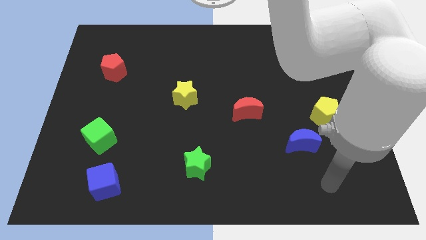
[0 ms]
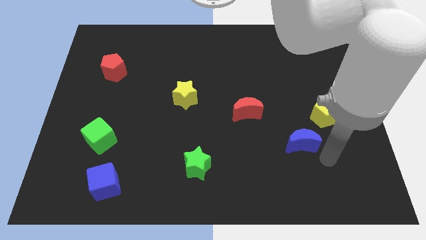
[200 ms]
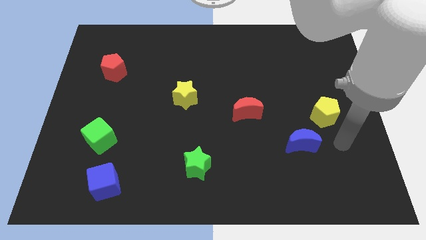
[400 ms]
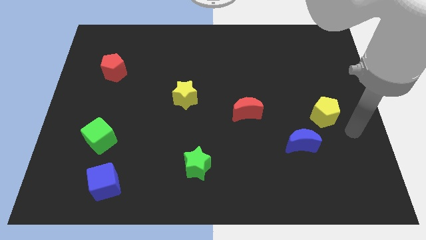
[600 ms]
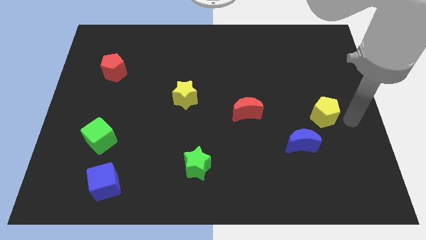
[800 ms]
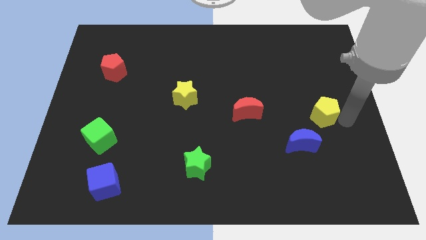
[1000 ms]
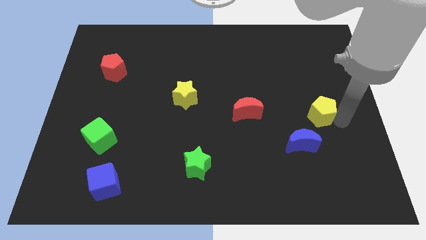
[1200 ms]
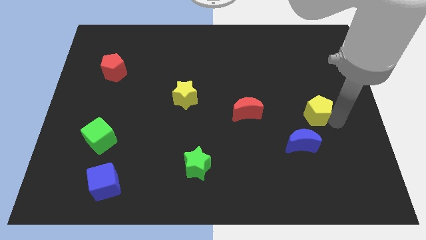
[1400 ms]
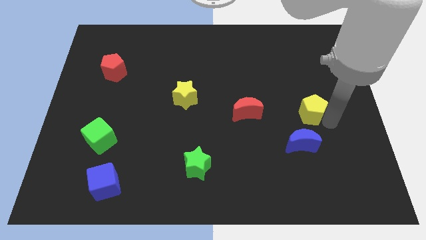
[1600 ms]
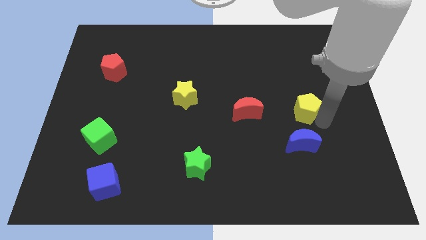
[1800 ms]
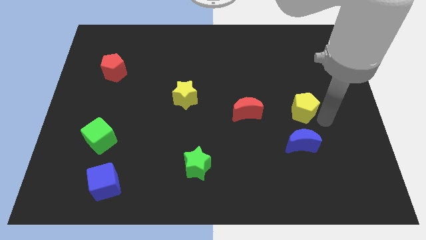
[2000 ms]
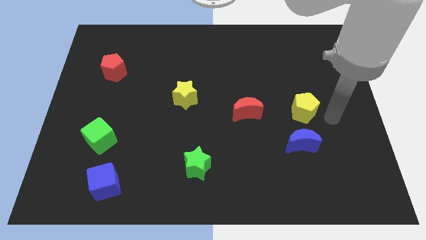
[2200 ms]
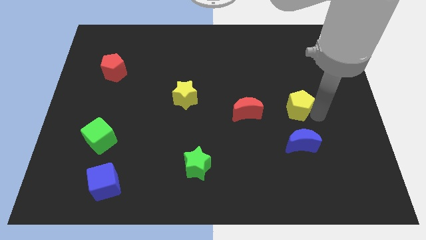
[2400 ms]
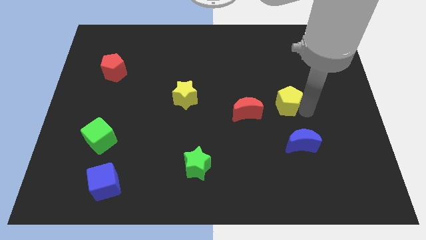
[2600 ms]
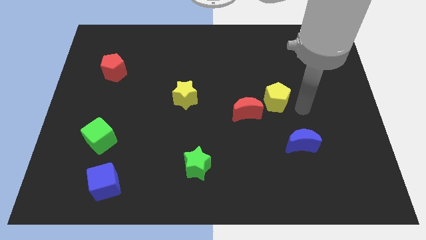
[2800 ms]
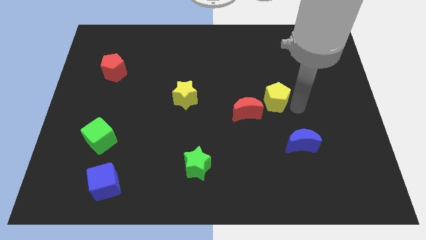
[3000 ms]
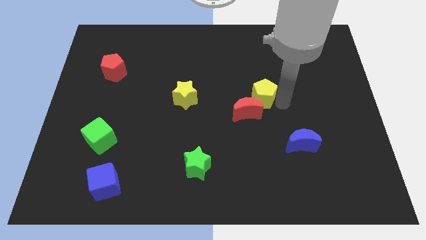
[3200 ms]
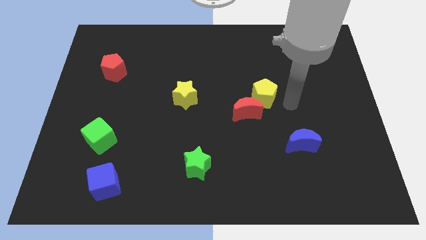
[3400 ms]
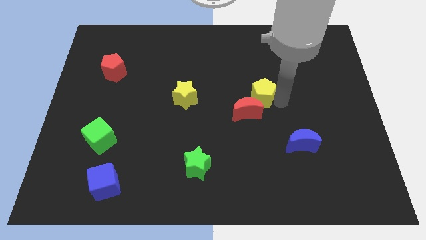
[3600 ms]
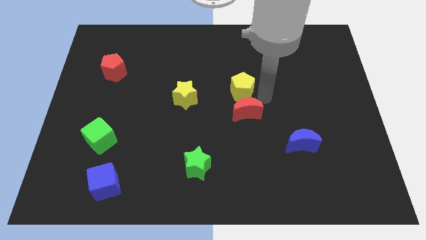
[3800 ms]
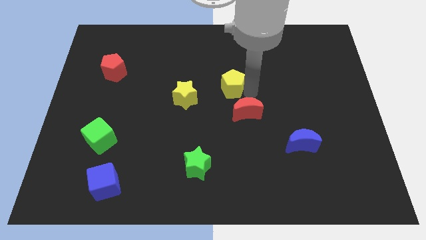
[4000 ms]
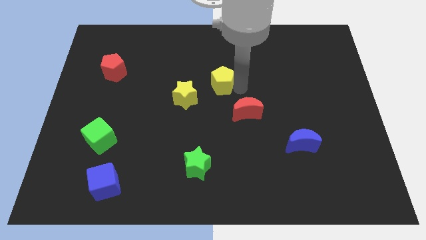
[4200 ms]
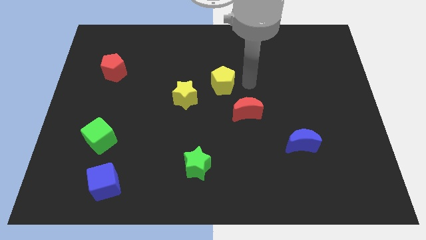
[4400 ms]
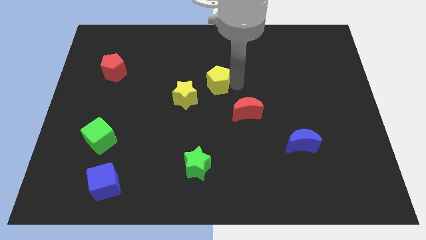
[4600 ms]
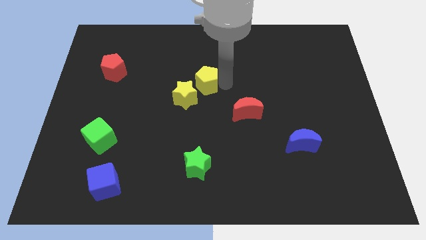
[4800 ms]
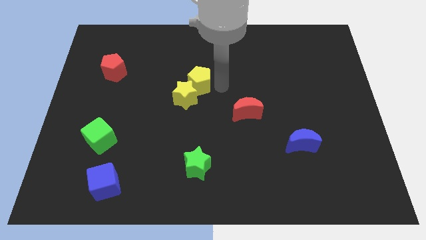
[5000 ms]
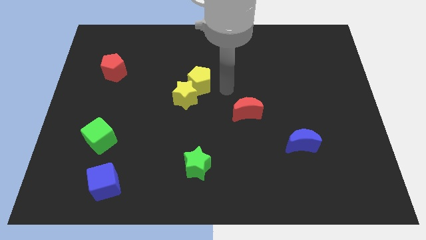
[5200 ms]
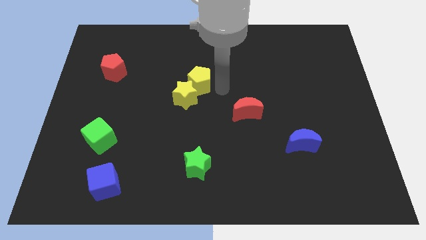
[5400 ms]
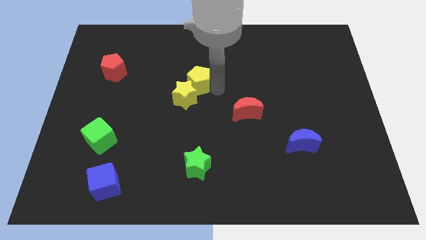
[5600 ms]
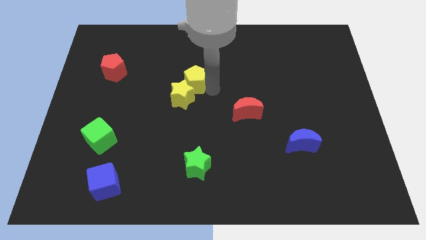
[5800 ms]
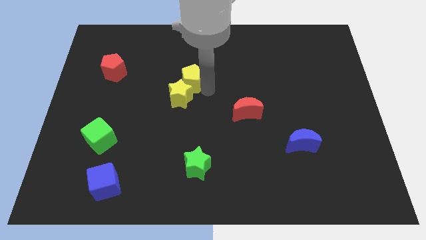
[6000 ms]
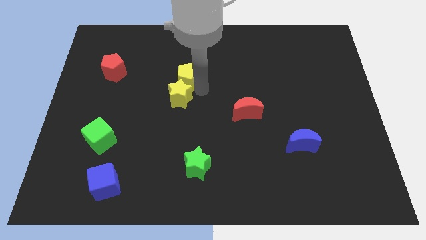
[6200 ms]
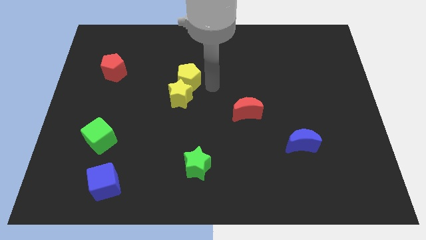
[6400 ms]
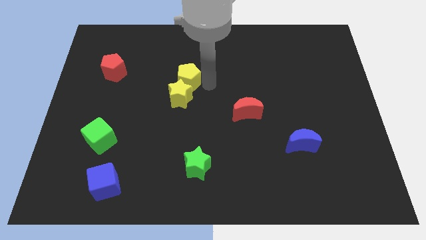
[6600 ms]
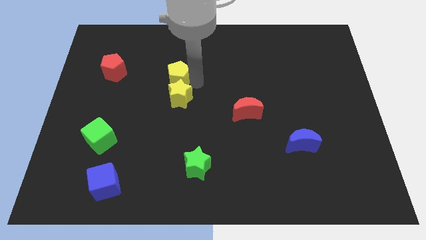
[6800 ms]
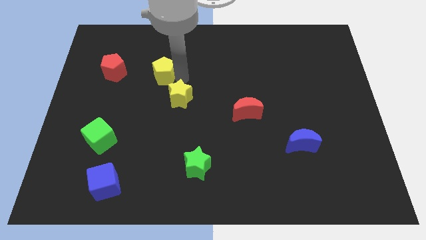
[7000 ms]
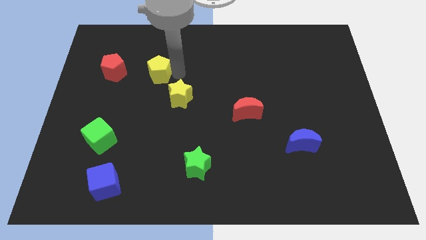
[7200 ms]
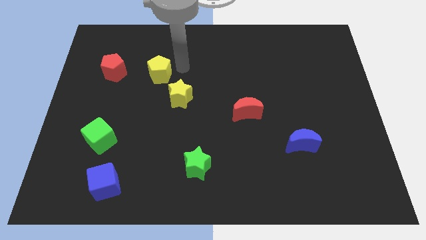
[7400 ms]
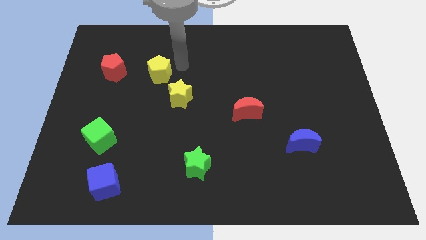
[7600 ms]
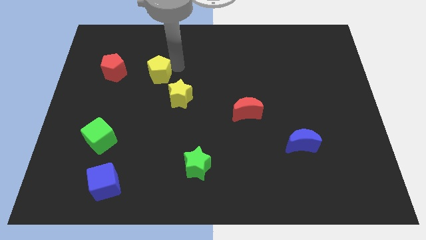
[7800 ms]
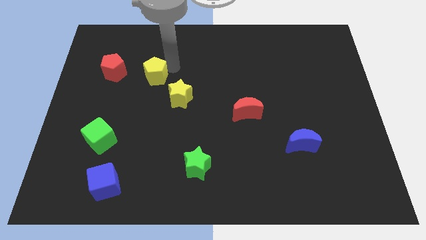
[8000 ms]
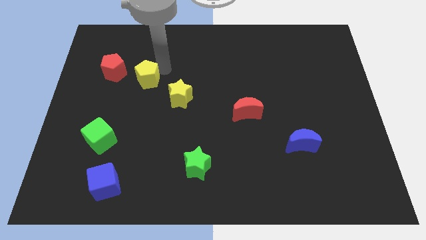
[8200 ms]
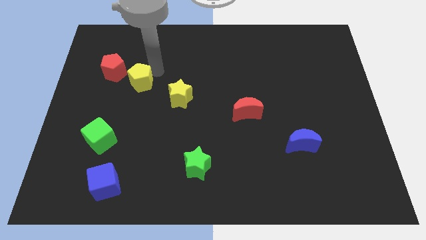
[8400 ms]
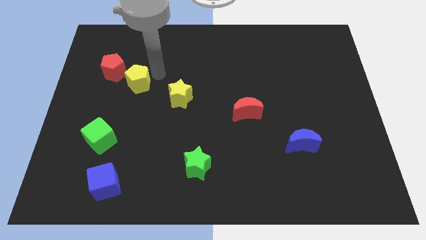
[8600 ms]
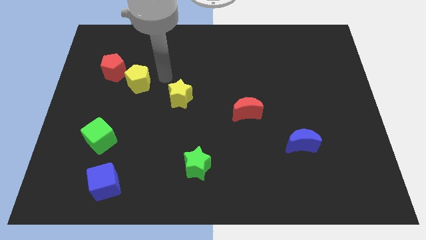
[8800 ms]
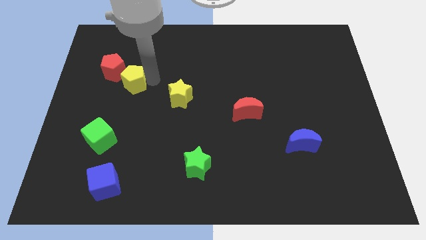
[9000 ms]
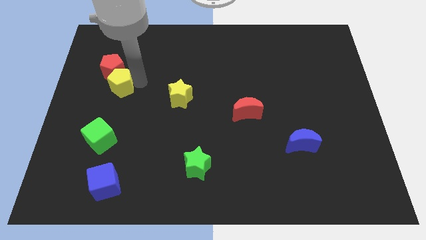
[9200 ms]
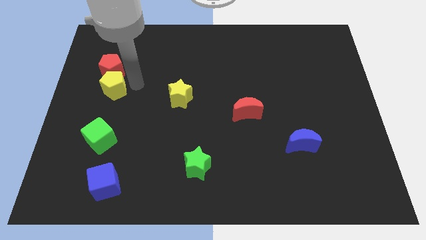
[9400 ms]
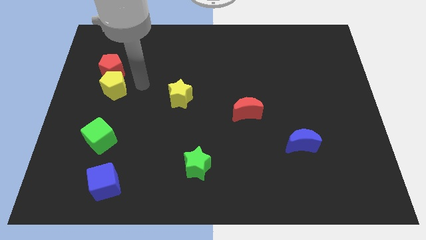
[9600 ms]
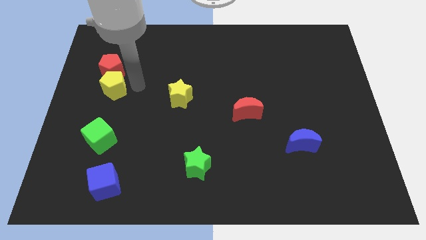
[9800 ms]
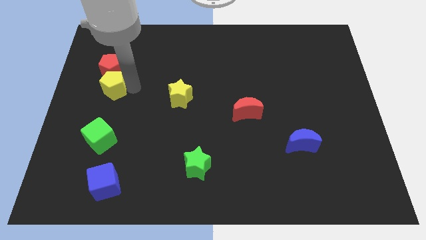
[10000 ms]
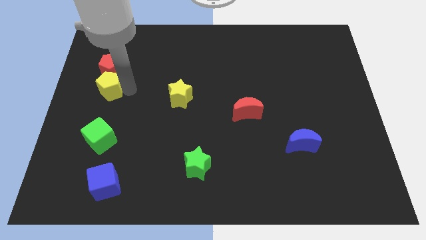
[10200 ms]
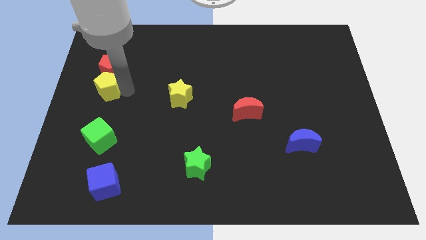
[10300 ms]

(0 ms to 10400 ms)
move the yellow pentagon to the left side

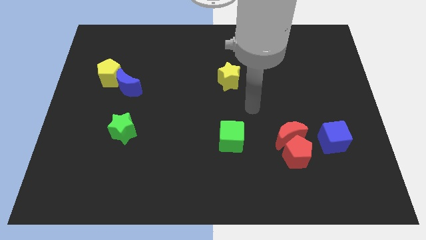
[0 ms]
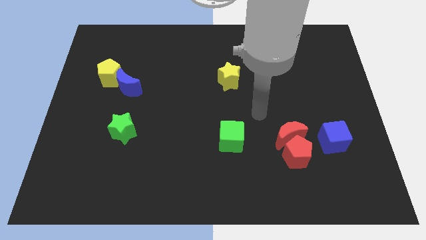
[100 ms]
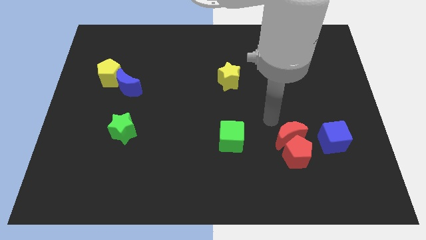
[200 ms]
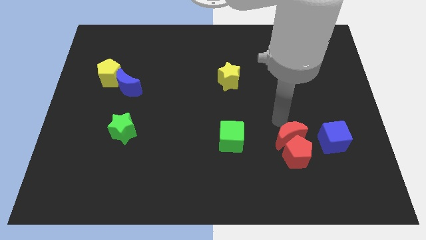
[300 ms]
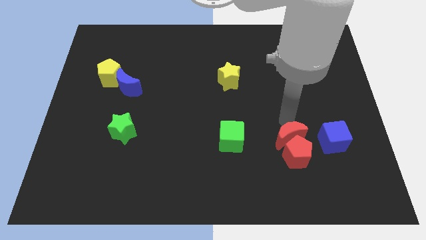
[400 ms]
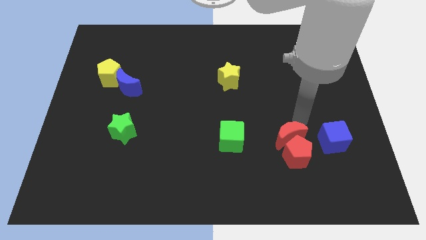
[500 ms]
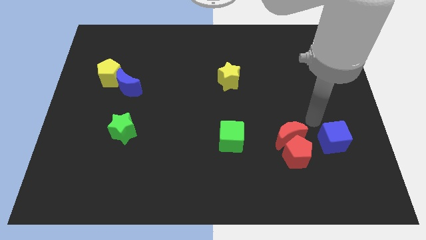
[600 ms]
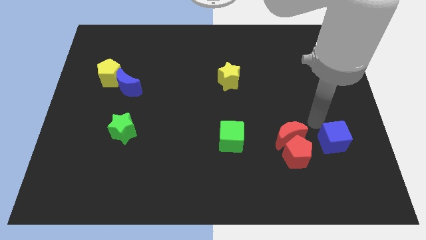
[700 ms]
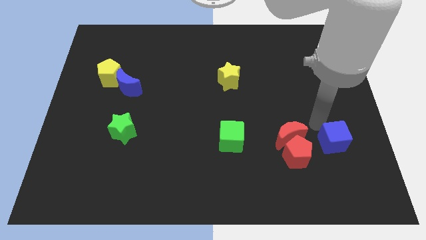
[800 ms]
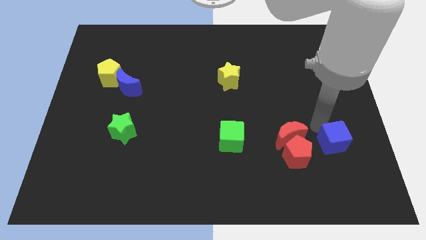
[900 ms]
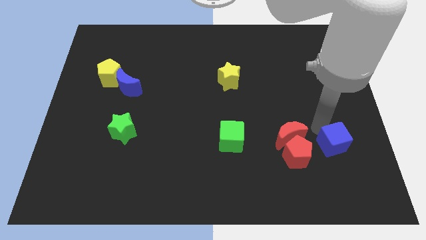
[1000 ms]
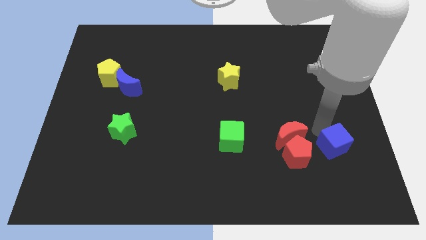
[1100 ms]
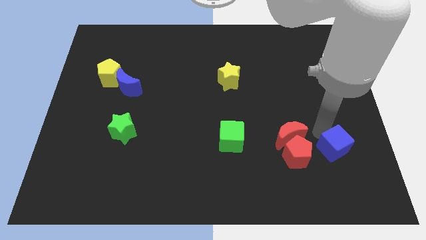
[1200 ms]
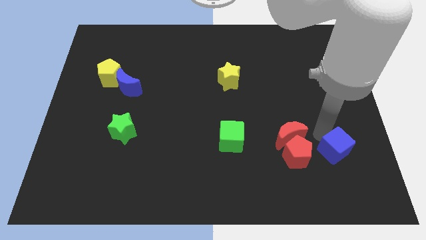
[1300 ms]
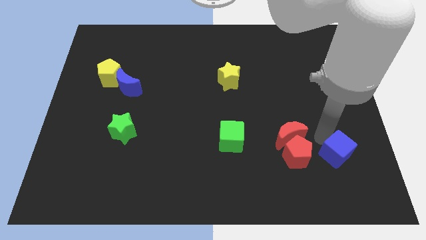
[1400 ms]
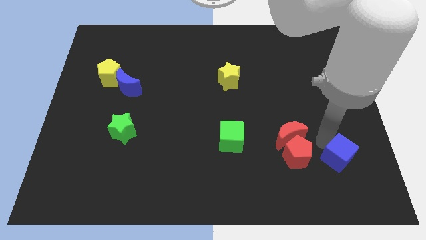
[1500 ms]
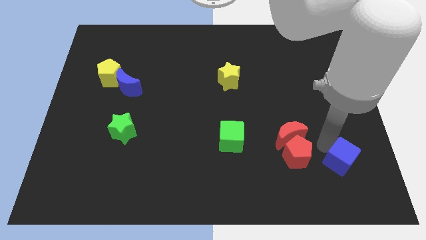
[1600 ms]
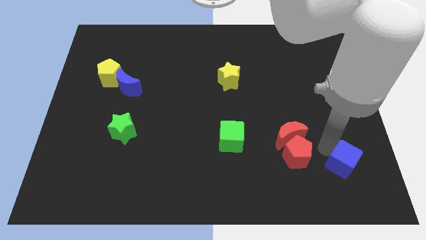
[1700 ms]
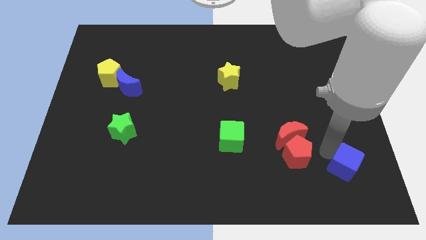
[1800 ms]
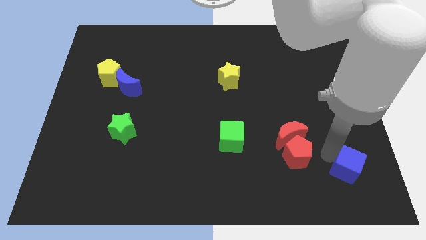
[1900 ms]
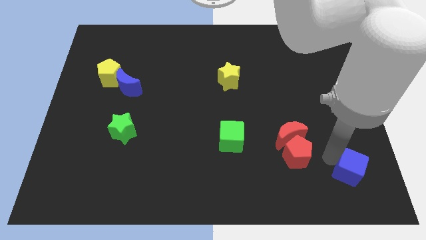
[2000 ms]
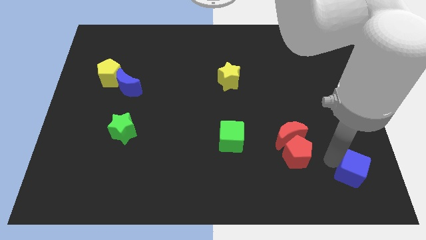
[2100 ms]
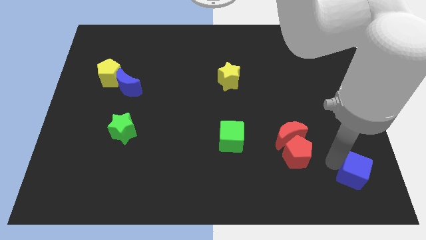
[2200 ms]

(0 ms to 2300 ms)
slide the blue cube to the bottom right corner
